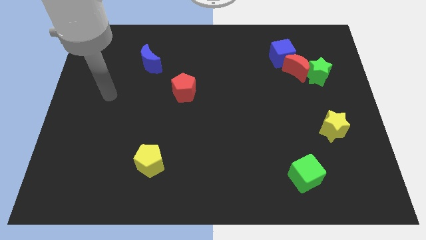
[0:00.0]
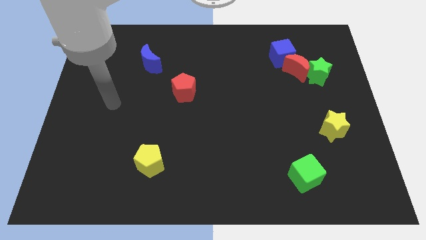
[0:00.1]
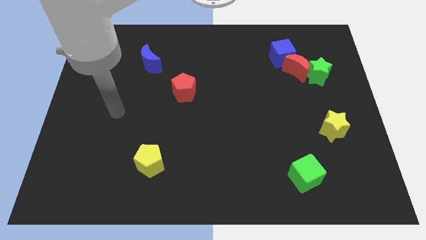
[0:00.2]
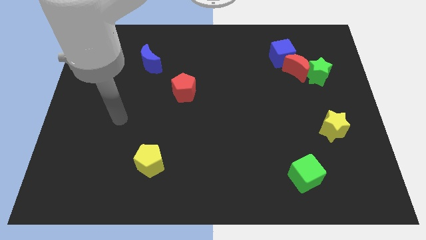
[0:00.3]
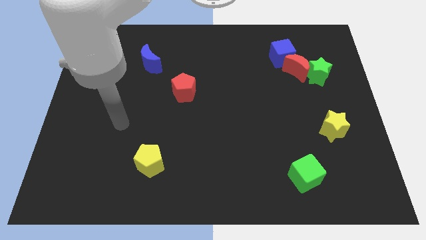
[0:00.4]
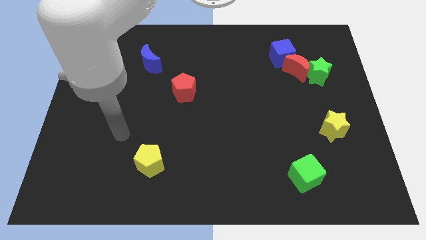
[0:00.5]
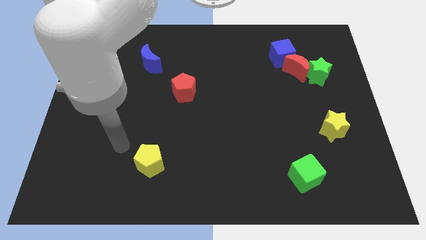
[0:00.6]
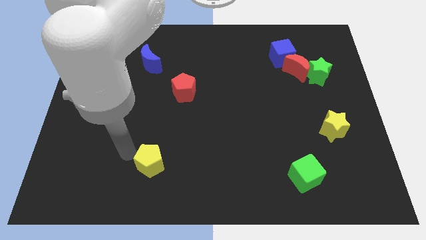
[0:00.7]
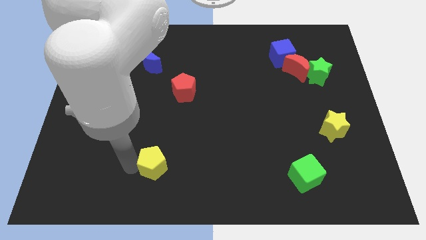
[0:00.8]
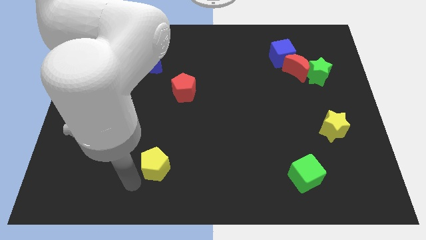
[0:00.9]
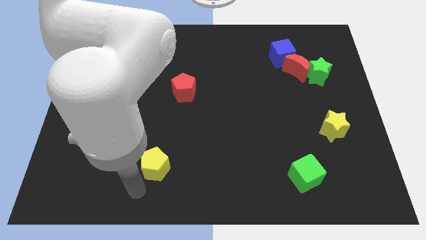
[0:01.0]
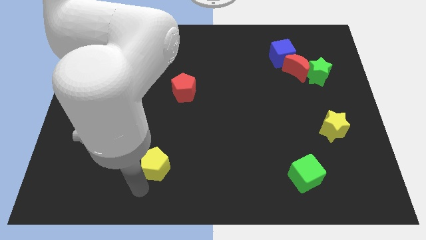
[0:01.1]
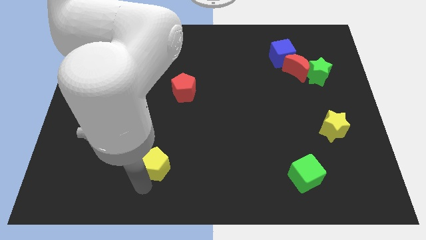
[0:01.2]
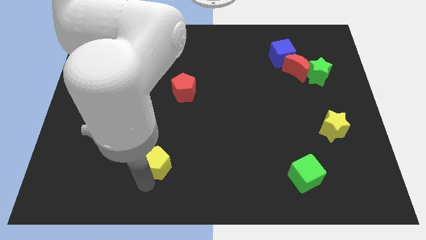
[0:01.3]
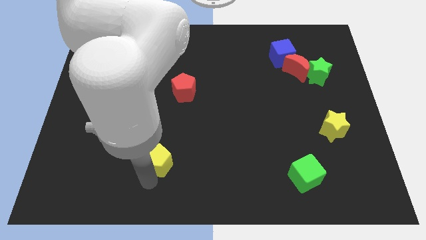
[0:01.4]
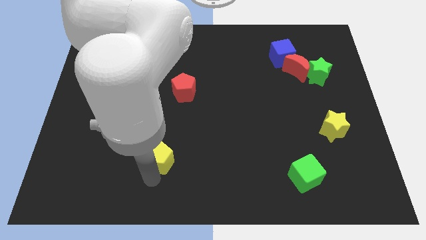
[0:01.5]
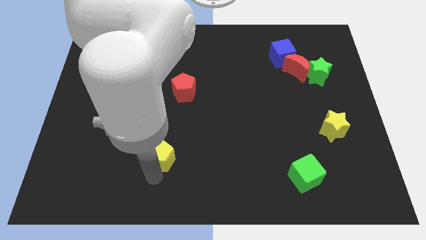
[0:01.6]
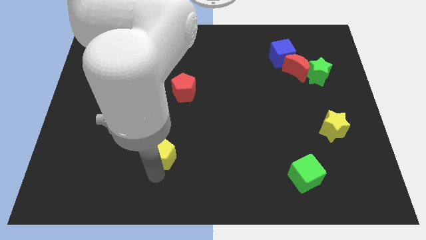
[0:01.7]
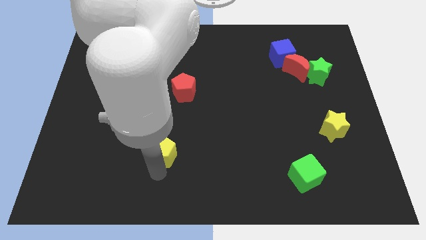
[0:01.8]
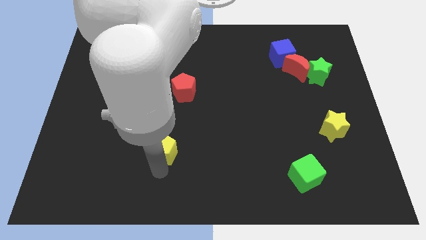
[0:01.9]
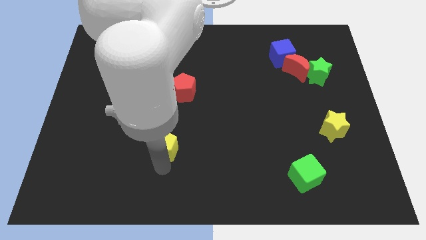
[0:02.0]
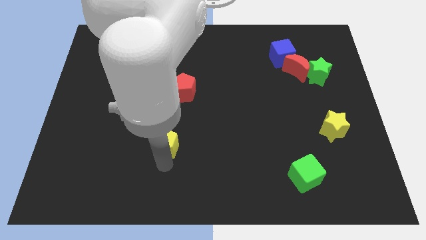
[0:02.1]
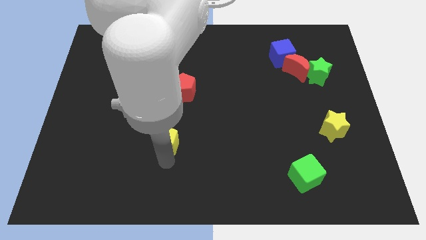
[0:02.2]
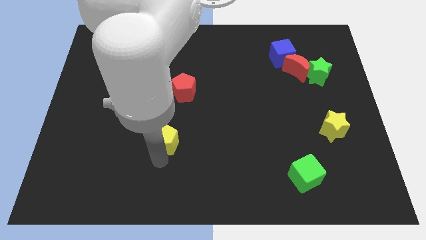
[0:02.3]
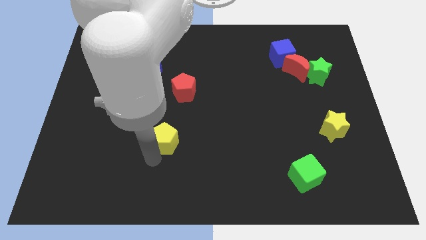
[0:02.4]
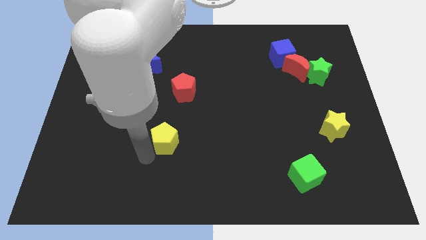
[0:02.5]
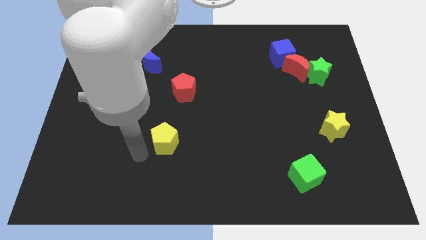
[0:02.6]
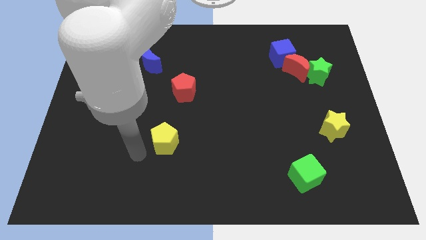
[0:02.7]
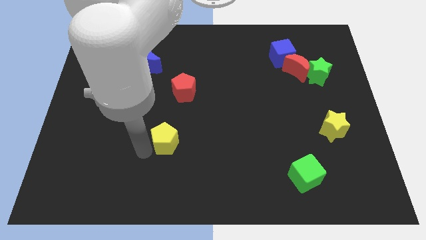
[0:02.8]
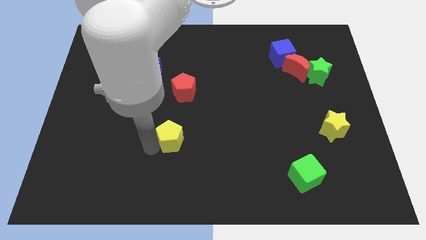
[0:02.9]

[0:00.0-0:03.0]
push the yellow pentagon a little upwards and then to the right

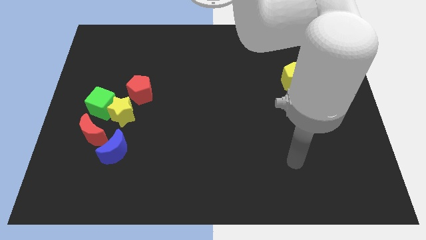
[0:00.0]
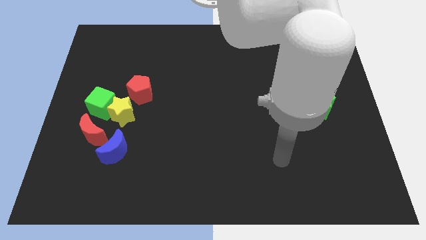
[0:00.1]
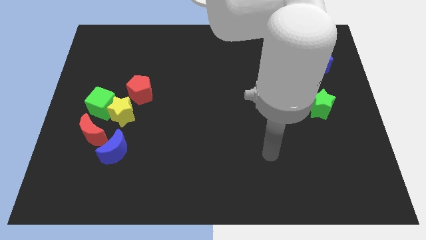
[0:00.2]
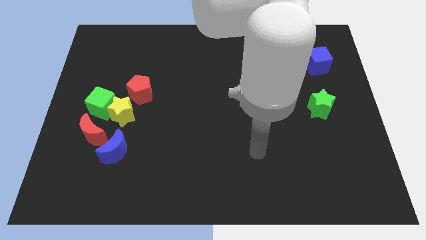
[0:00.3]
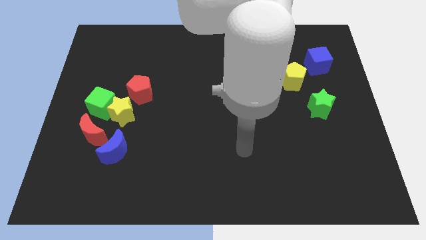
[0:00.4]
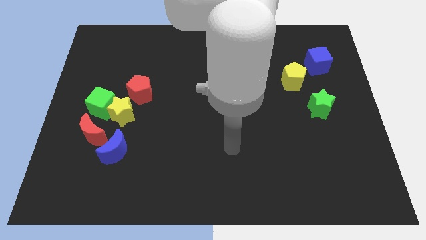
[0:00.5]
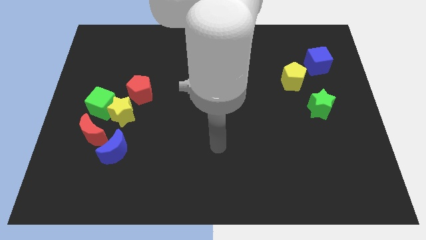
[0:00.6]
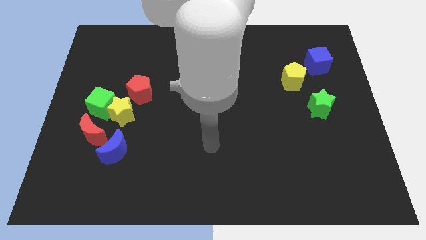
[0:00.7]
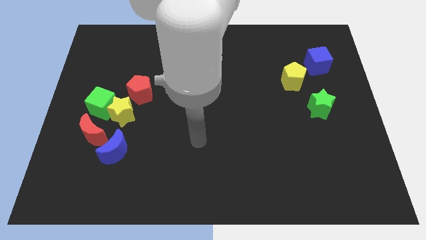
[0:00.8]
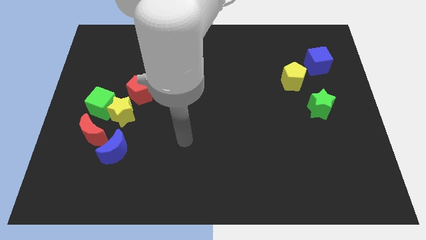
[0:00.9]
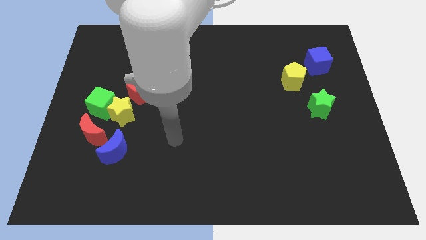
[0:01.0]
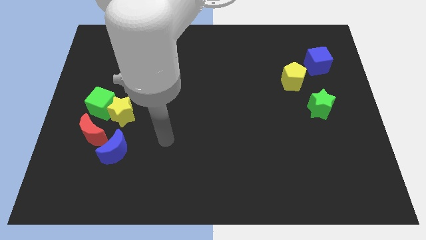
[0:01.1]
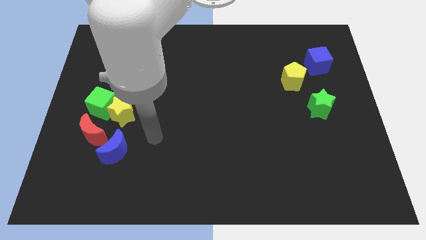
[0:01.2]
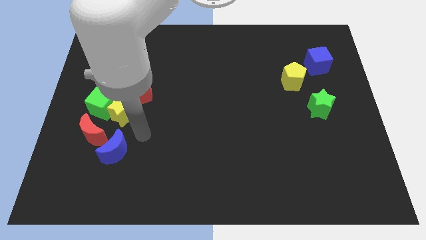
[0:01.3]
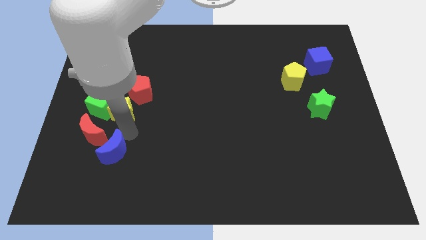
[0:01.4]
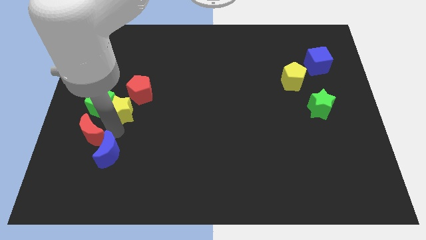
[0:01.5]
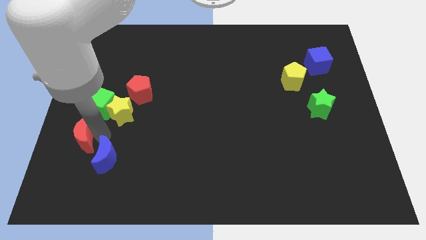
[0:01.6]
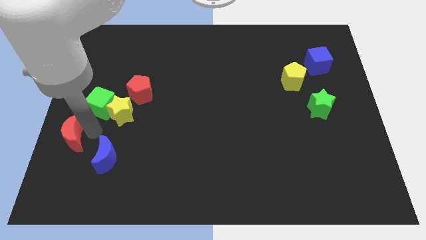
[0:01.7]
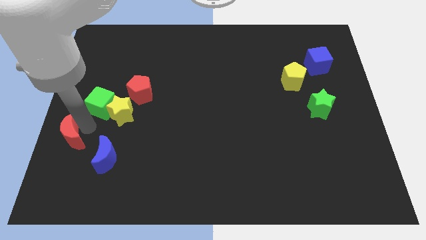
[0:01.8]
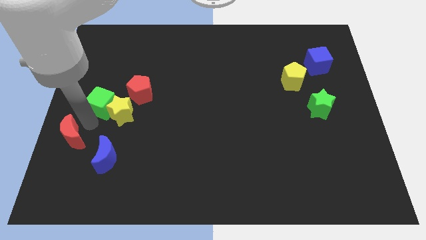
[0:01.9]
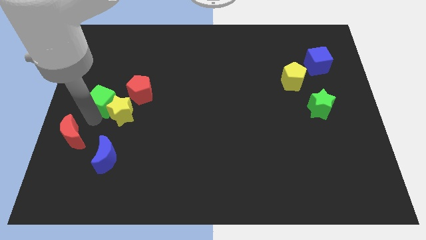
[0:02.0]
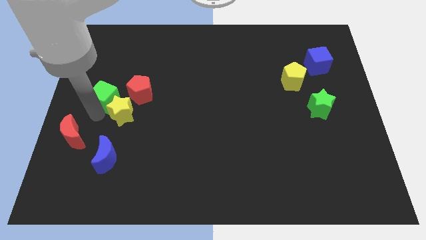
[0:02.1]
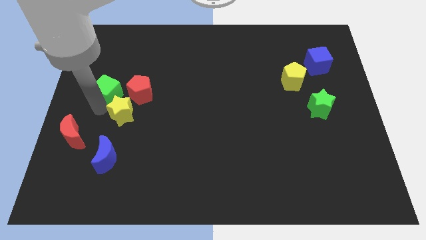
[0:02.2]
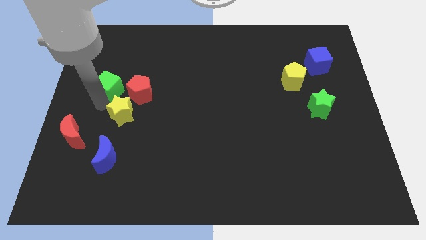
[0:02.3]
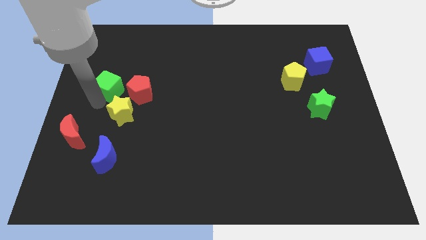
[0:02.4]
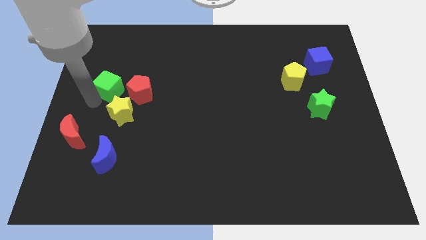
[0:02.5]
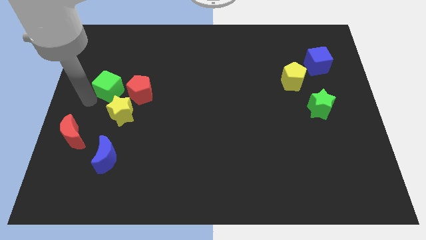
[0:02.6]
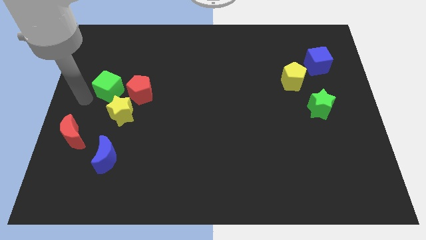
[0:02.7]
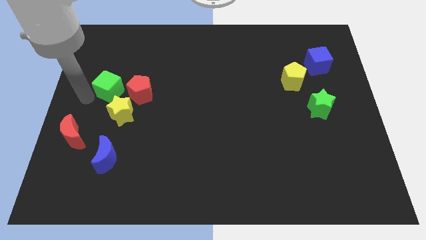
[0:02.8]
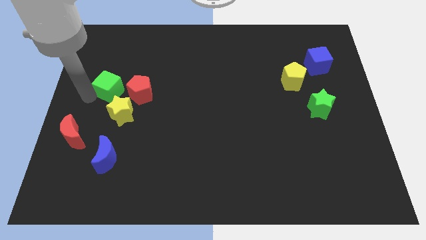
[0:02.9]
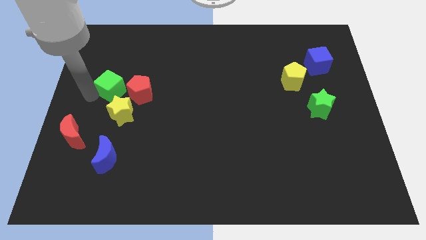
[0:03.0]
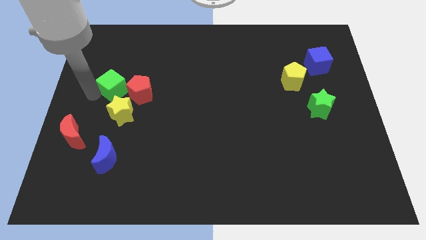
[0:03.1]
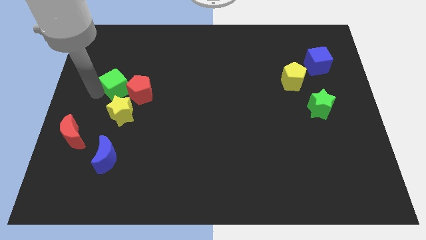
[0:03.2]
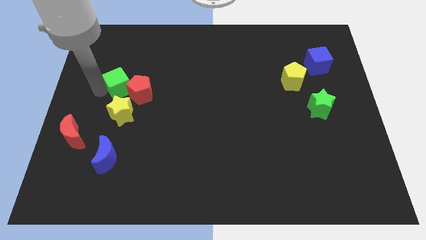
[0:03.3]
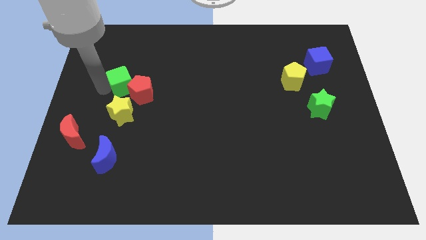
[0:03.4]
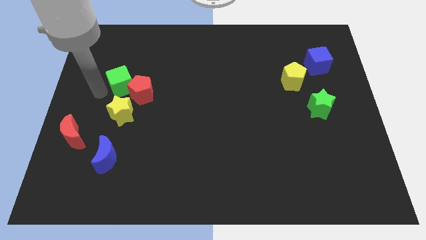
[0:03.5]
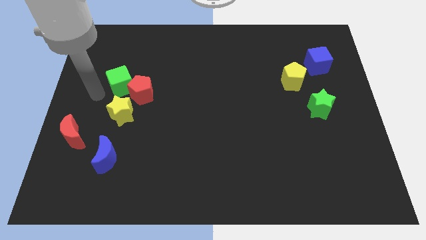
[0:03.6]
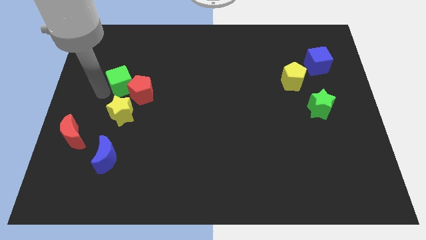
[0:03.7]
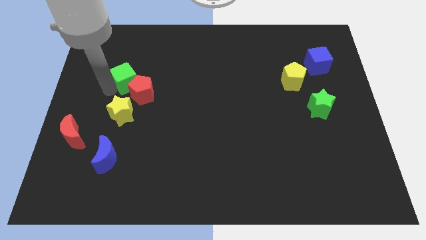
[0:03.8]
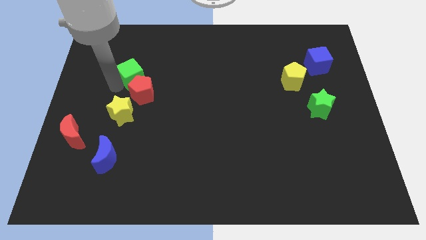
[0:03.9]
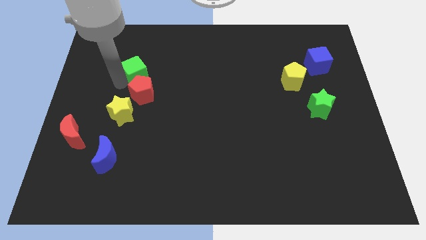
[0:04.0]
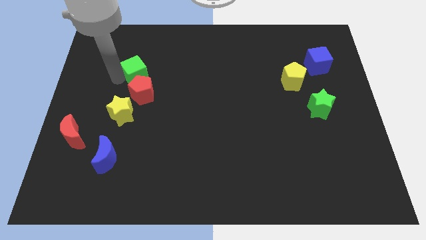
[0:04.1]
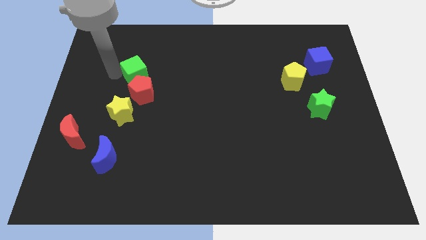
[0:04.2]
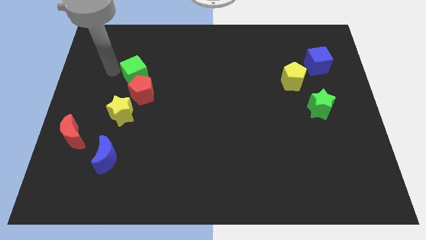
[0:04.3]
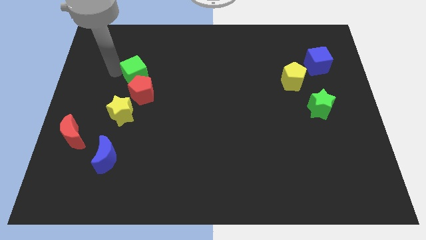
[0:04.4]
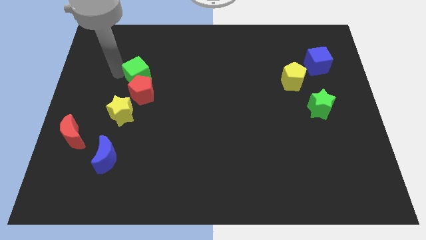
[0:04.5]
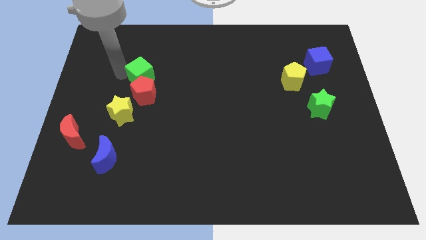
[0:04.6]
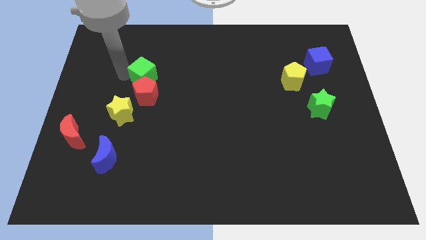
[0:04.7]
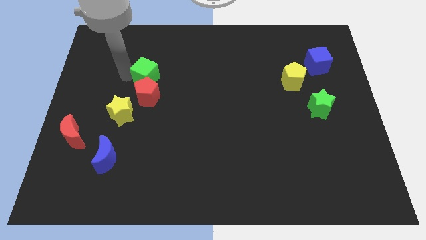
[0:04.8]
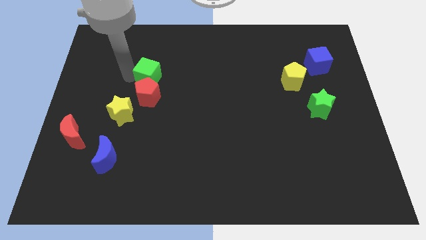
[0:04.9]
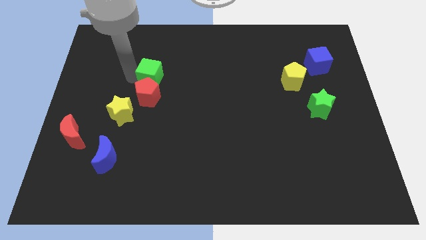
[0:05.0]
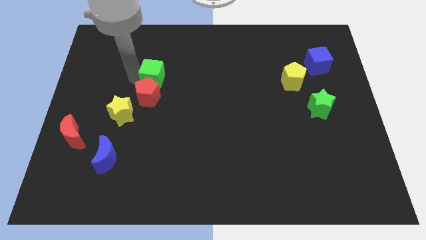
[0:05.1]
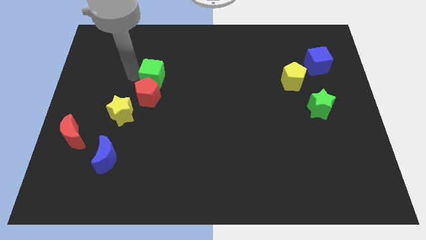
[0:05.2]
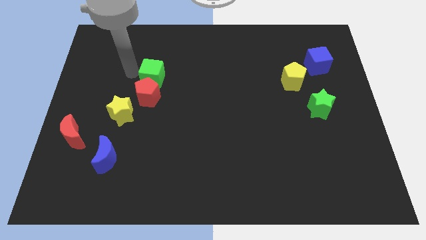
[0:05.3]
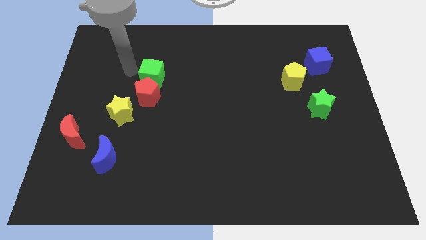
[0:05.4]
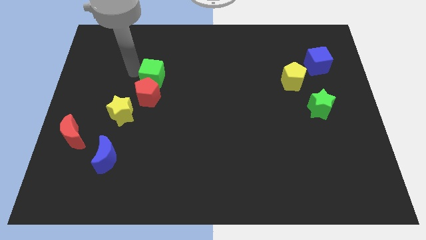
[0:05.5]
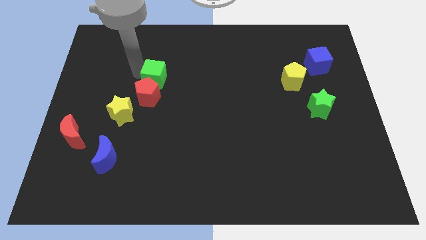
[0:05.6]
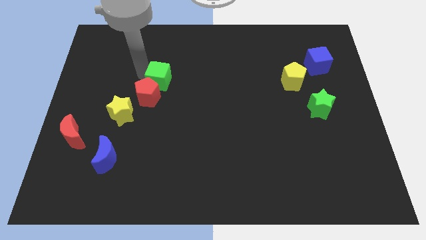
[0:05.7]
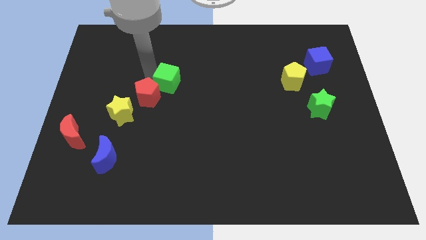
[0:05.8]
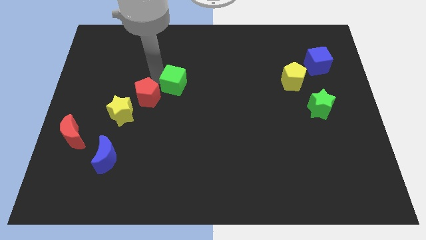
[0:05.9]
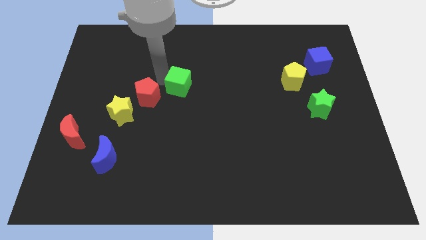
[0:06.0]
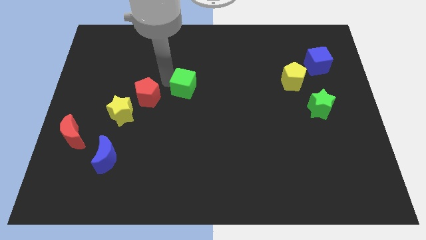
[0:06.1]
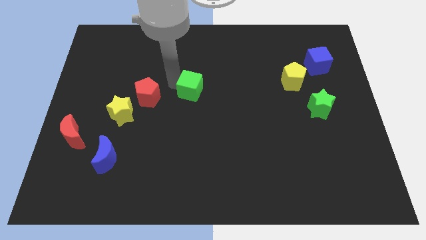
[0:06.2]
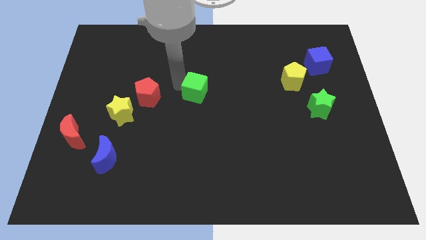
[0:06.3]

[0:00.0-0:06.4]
move the green cube to the right
